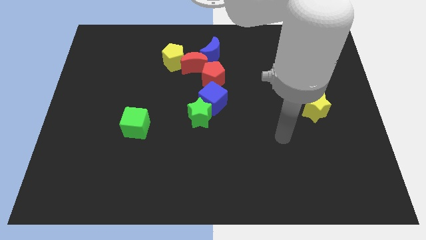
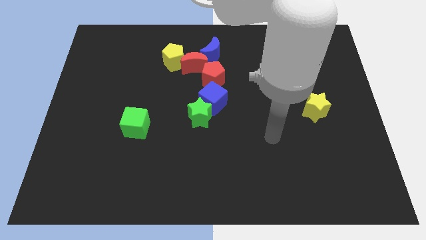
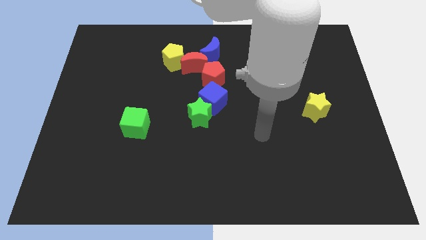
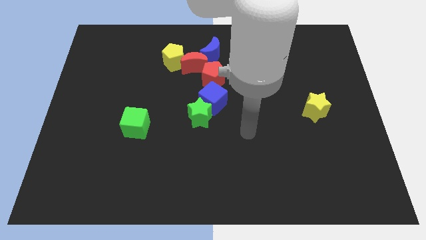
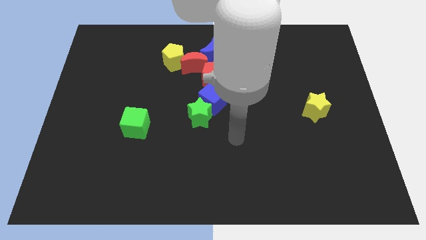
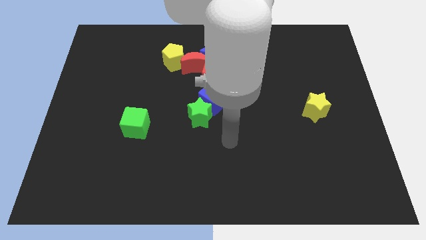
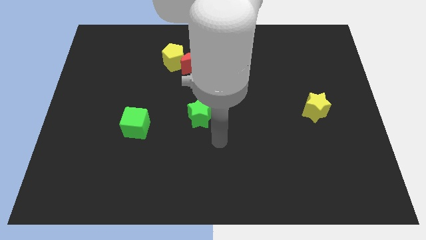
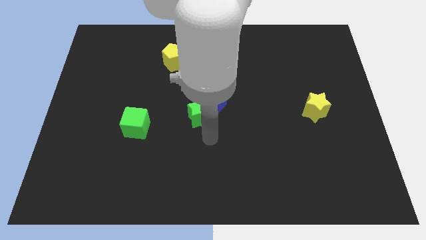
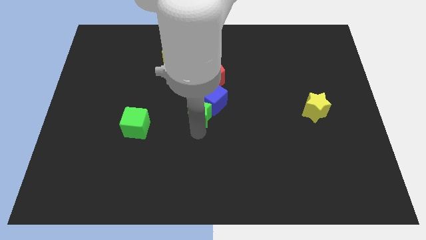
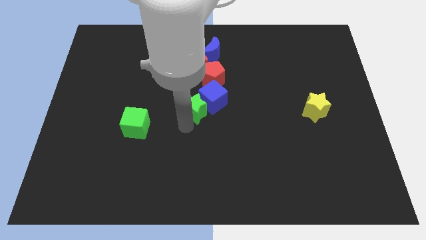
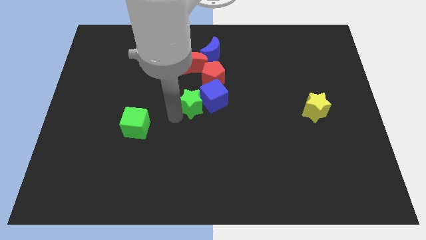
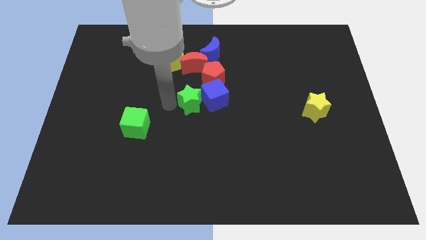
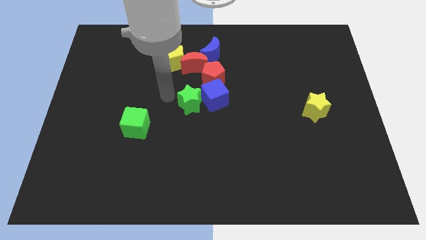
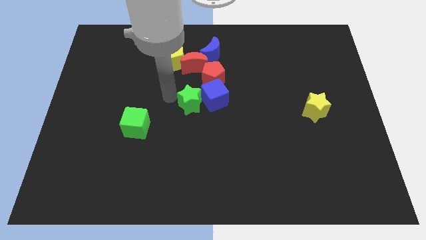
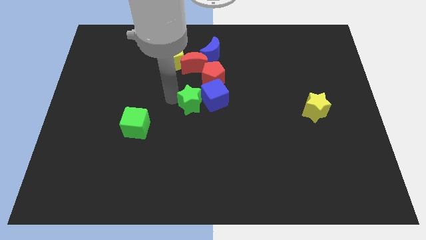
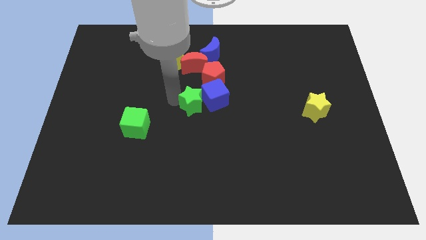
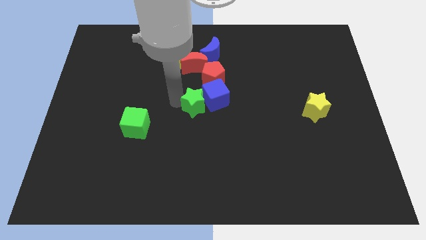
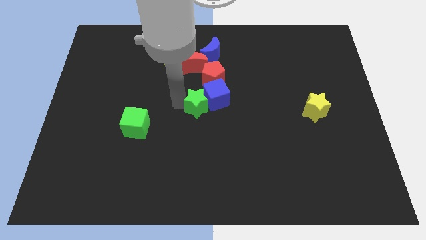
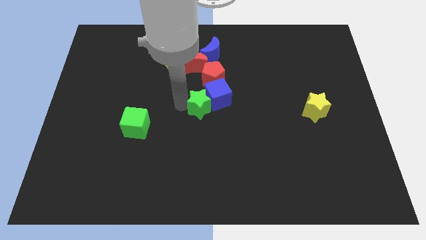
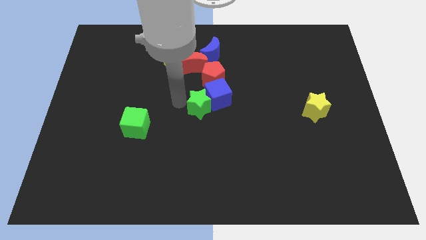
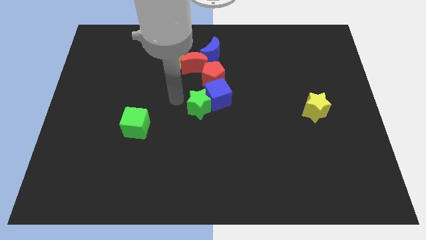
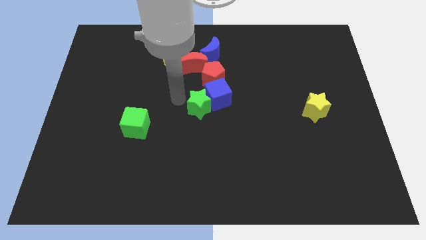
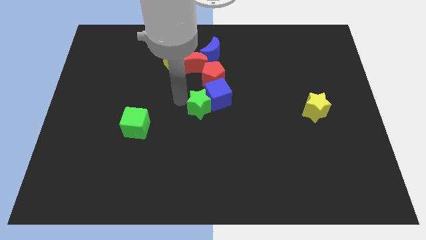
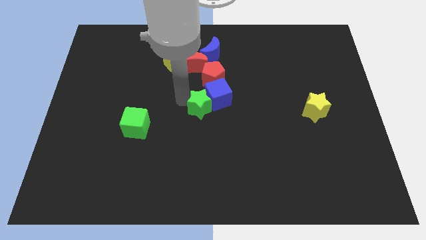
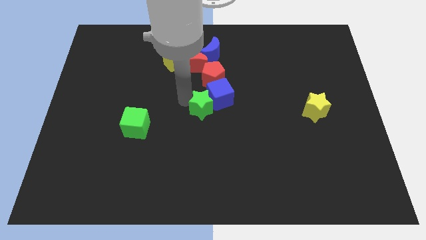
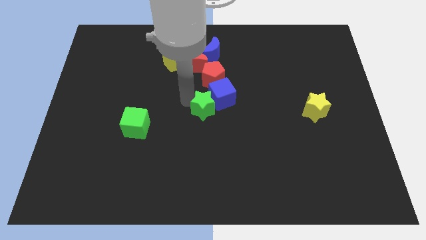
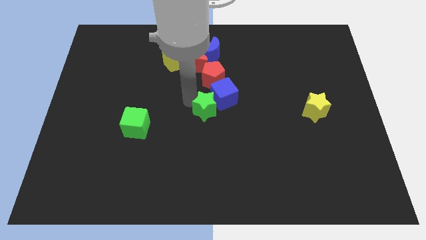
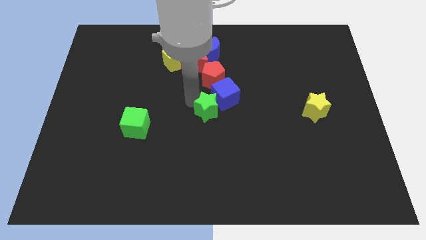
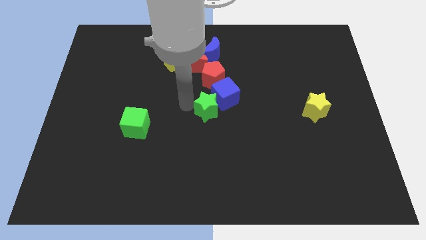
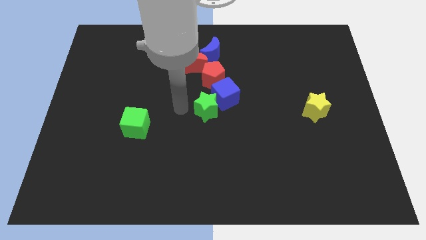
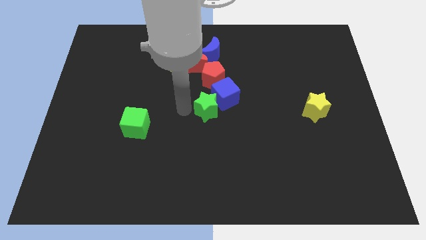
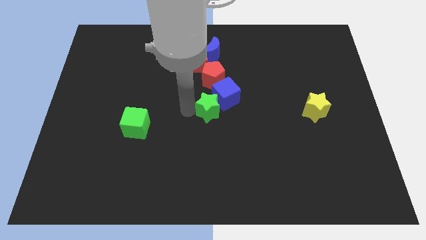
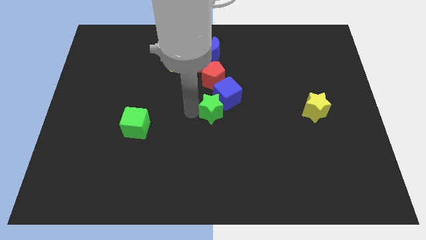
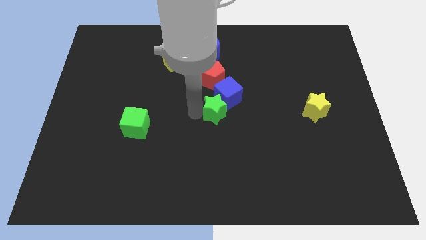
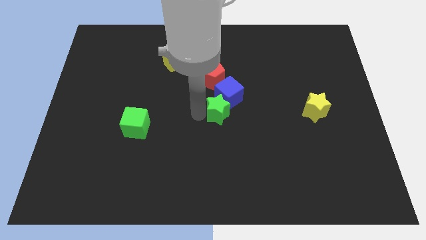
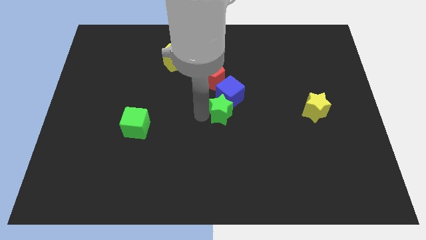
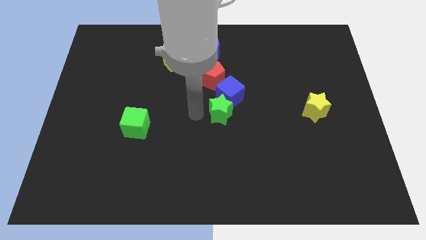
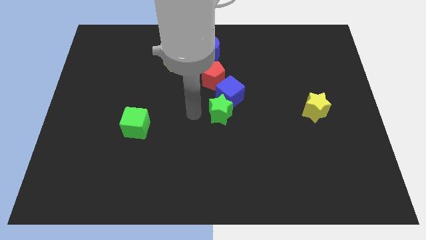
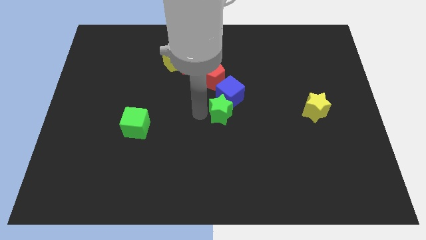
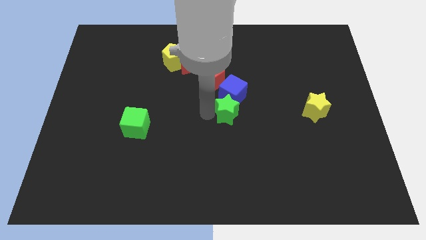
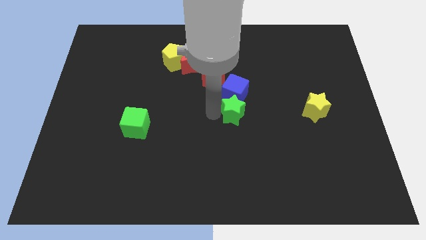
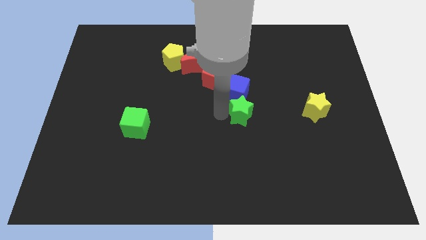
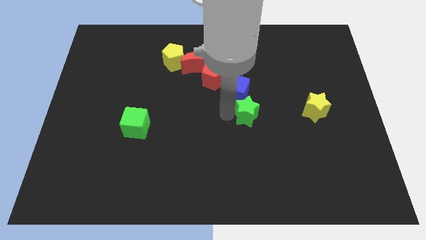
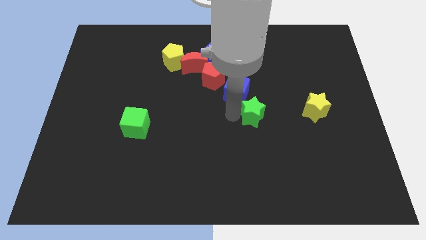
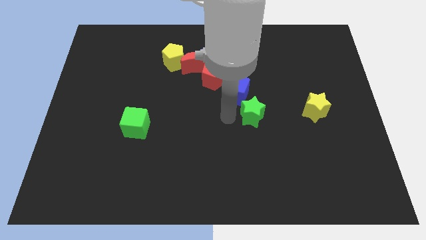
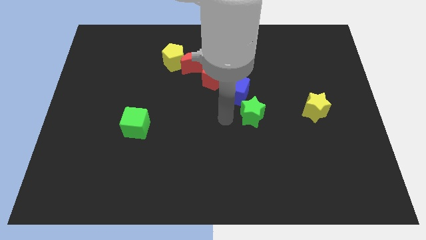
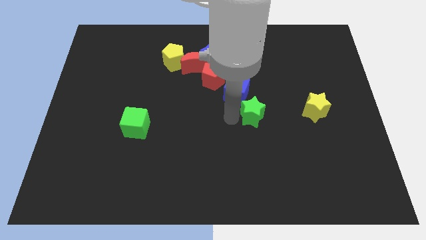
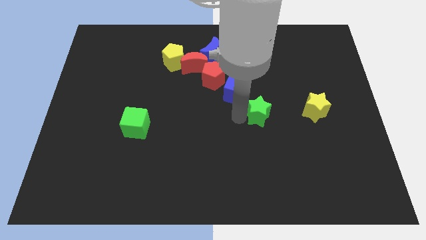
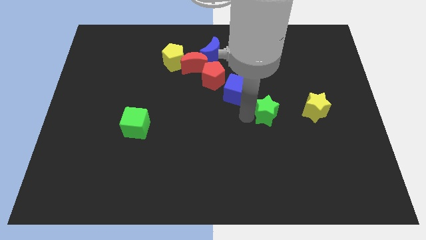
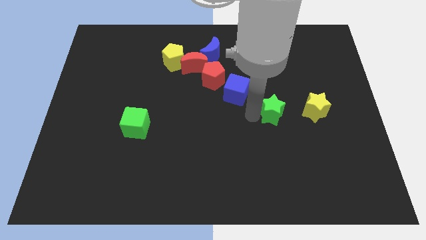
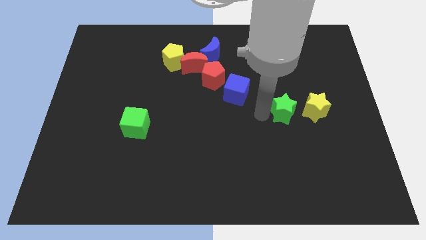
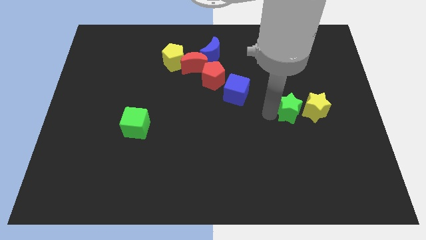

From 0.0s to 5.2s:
put the green star towards the yellow star

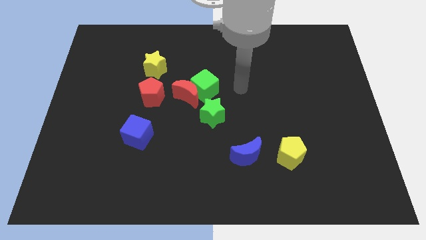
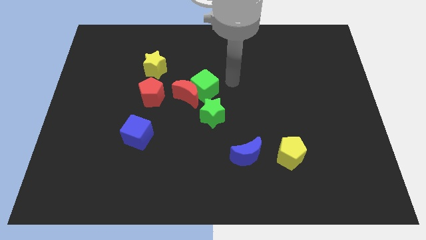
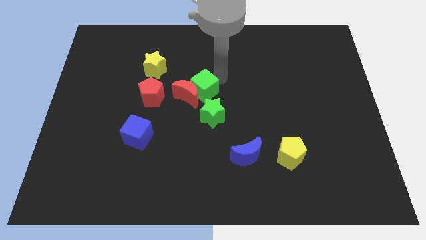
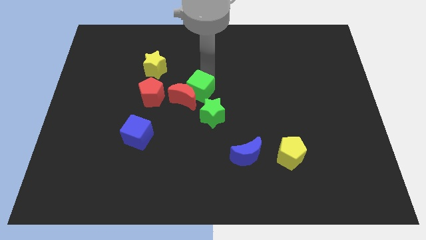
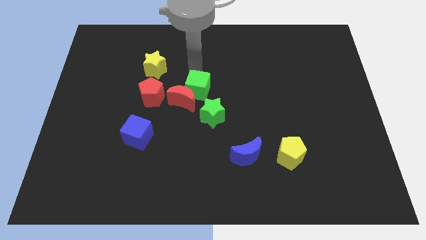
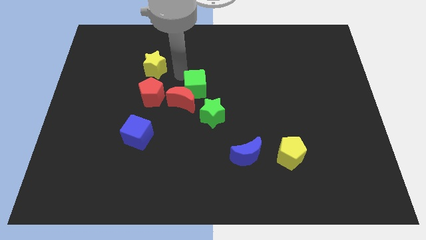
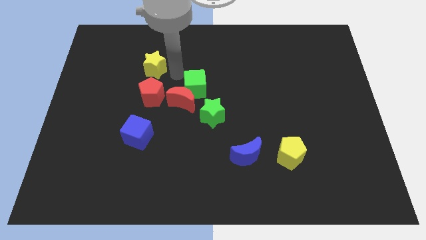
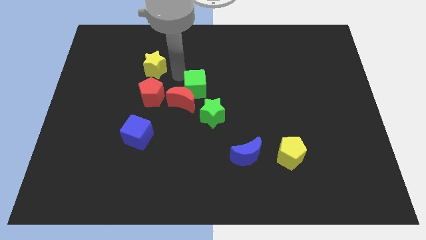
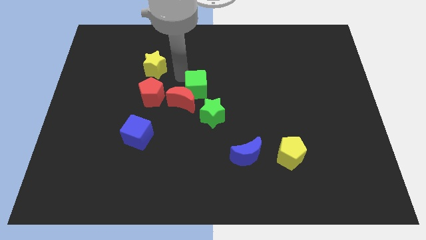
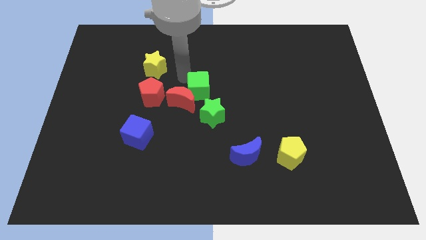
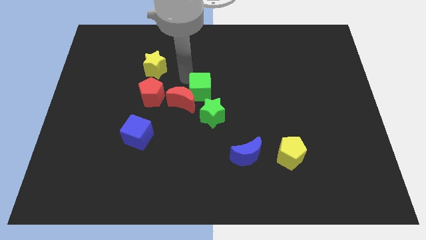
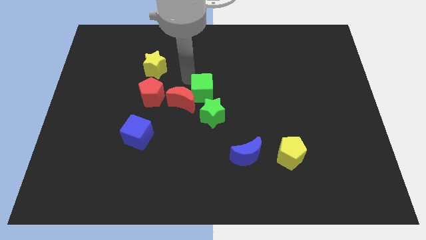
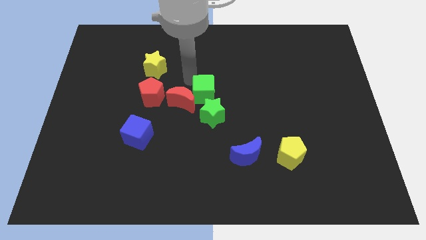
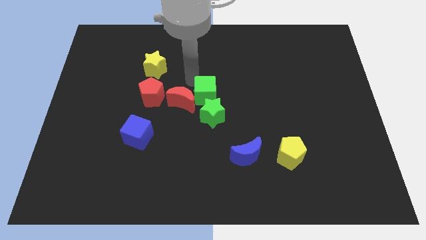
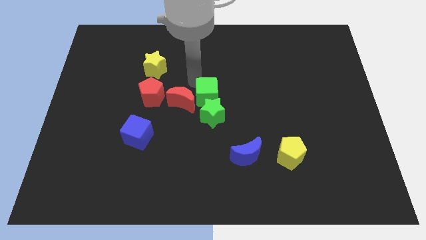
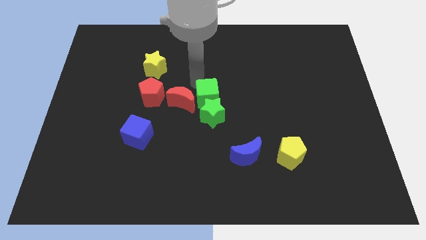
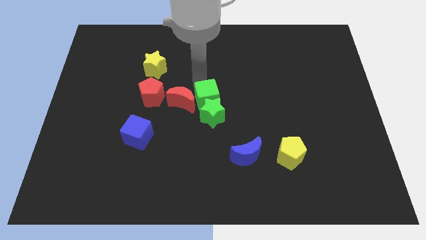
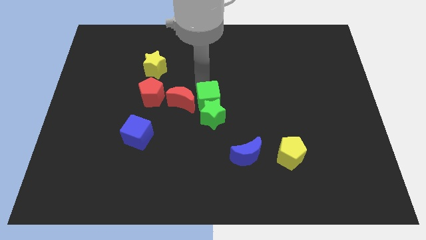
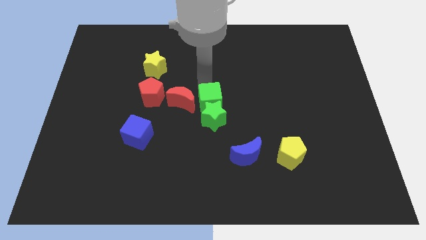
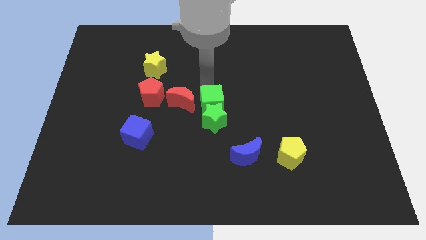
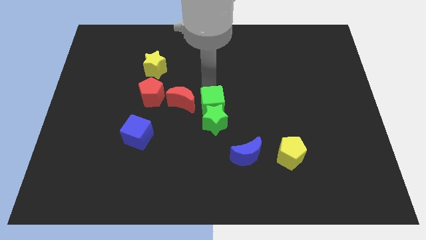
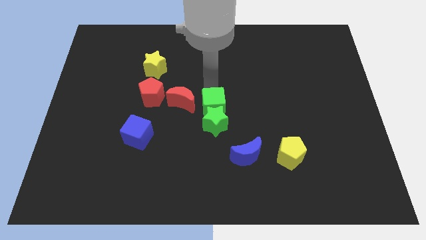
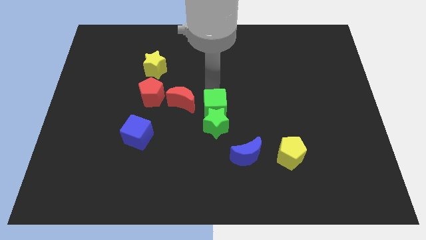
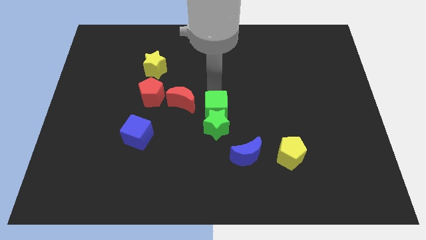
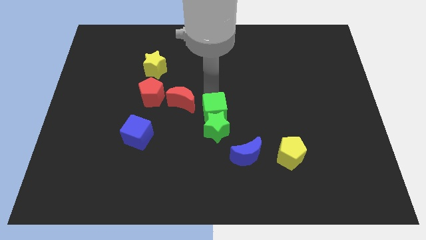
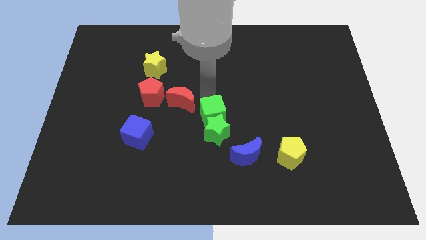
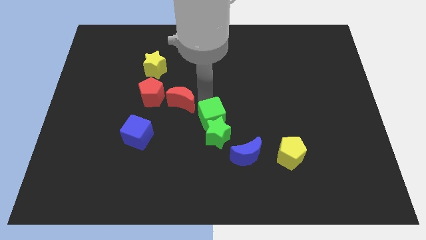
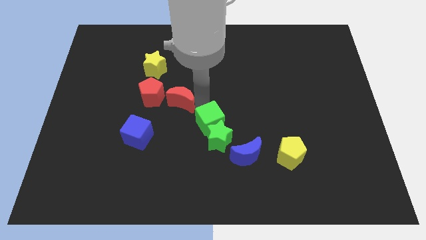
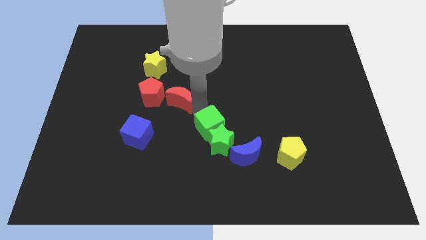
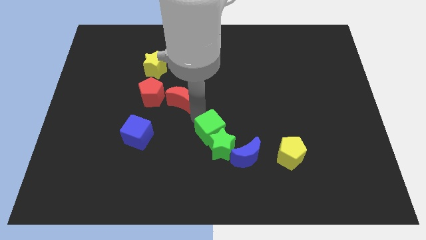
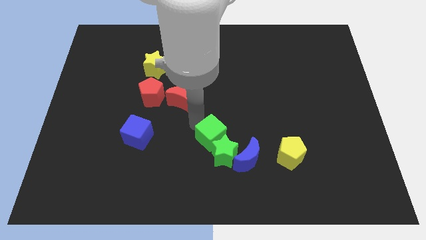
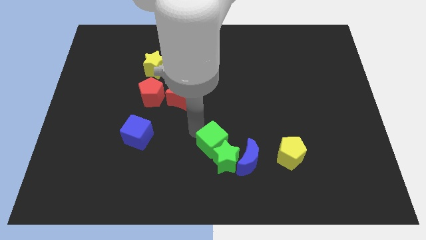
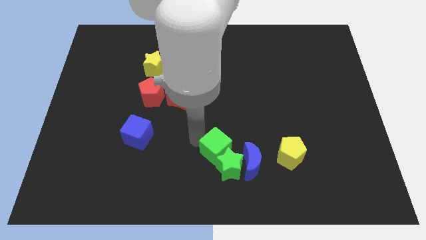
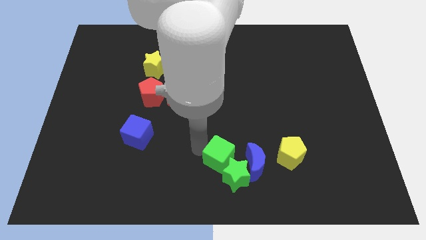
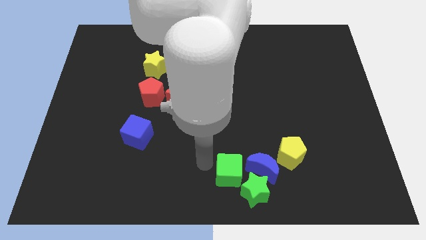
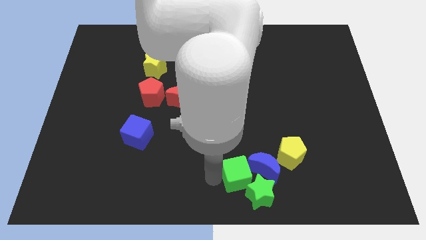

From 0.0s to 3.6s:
push the green cube next to the blue moon
